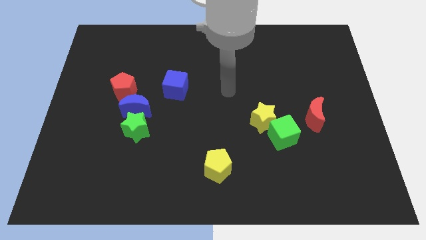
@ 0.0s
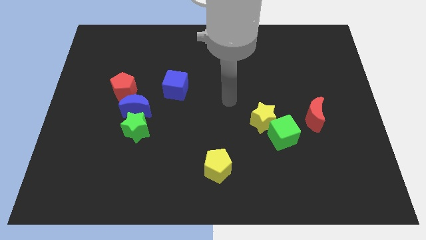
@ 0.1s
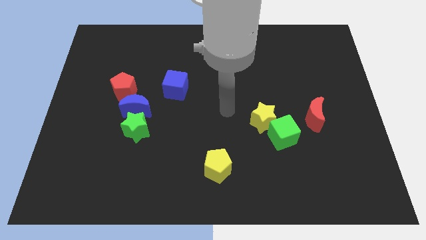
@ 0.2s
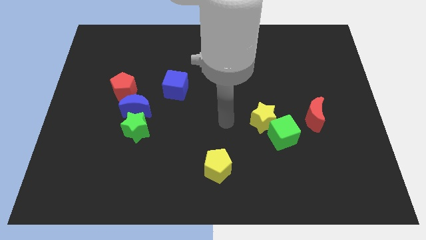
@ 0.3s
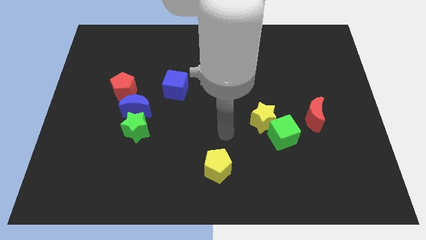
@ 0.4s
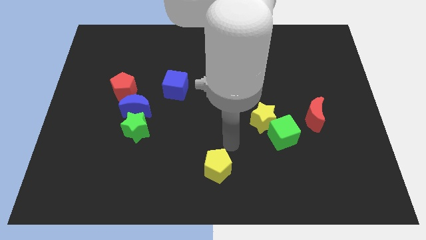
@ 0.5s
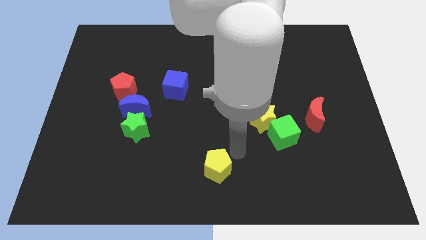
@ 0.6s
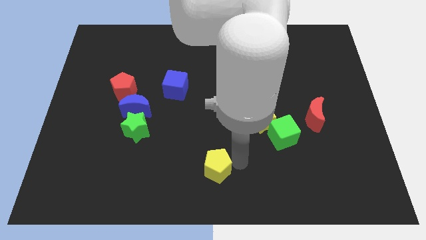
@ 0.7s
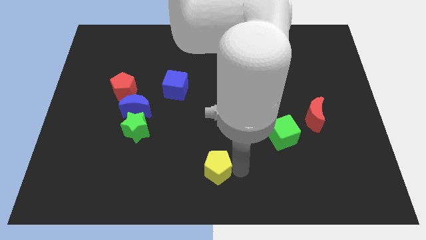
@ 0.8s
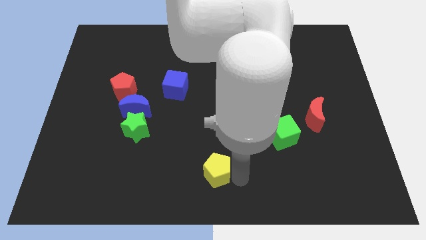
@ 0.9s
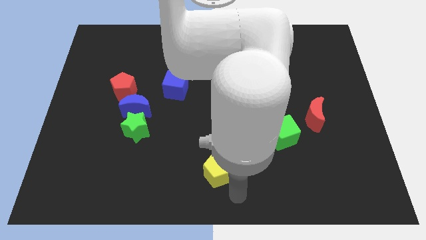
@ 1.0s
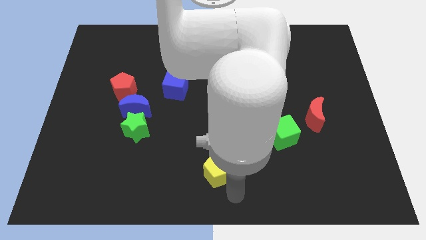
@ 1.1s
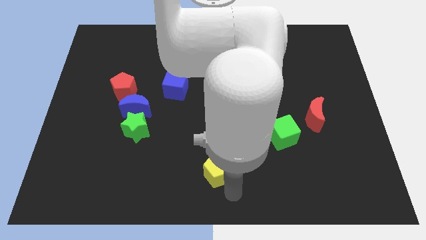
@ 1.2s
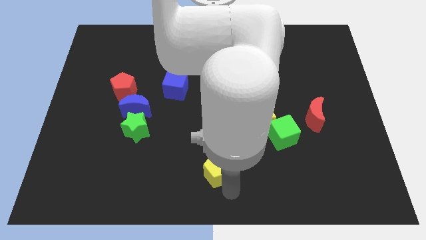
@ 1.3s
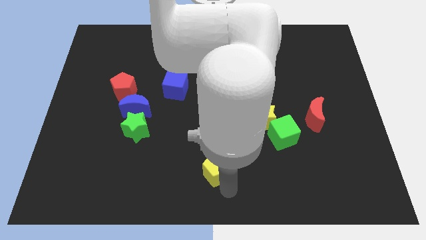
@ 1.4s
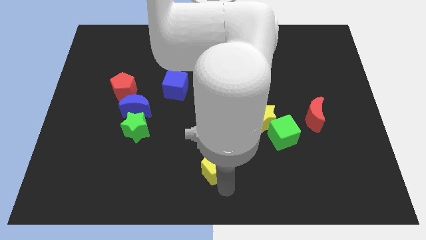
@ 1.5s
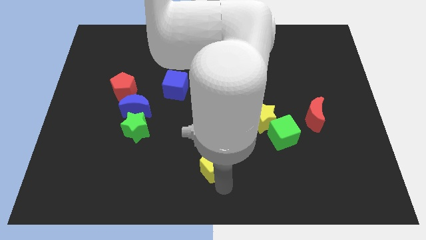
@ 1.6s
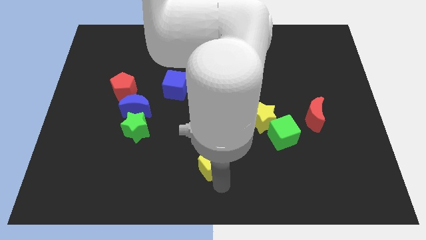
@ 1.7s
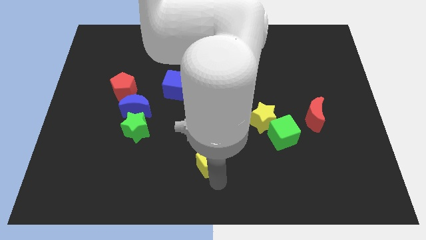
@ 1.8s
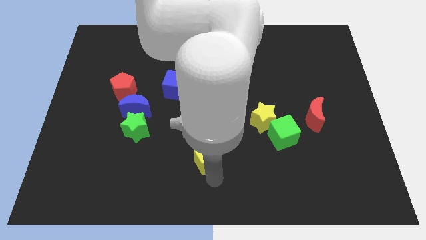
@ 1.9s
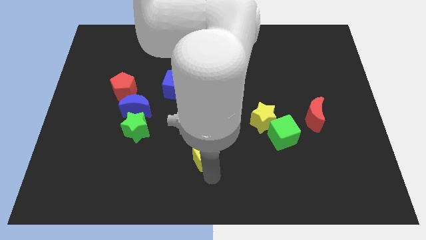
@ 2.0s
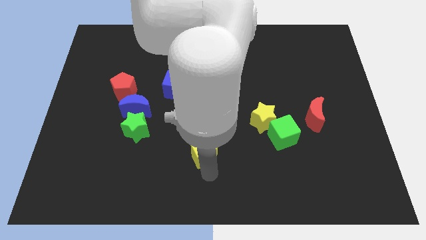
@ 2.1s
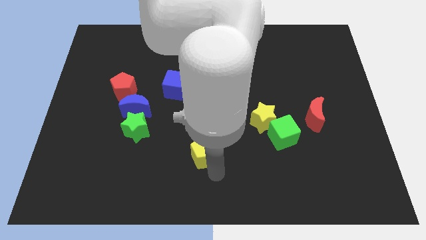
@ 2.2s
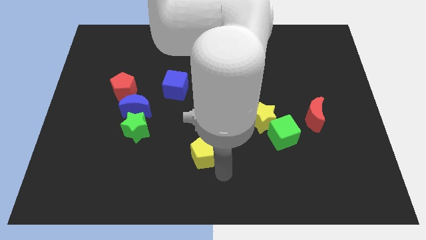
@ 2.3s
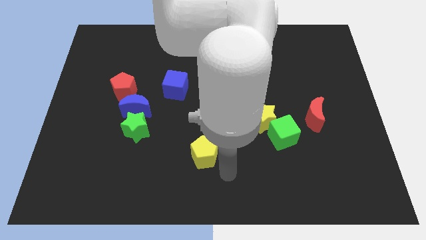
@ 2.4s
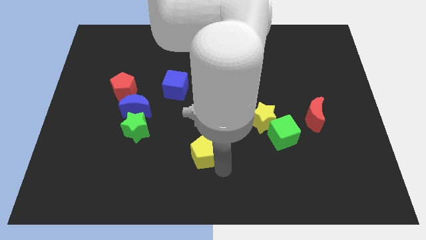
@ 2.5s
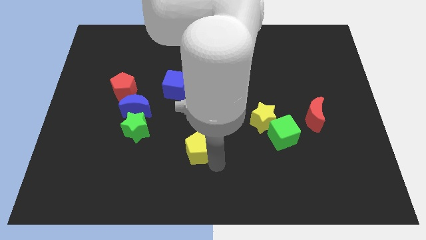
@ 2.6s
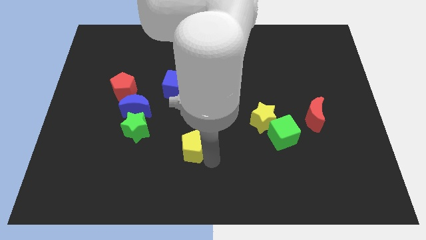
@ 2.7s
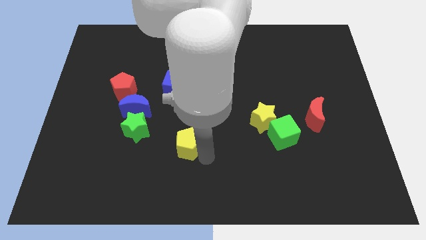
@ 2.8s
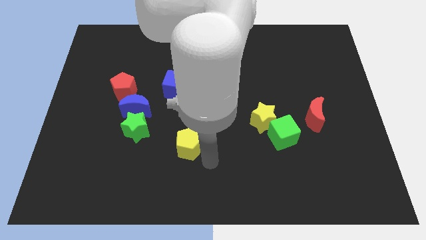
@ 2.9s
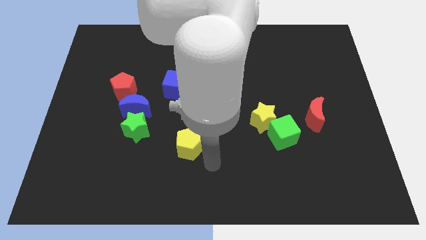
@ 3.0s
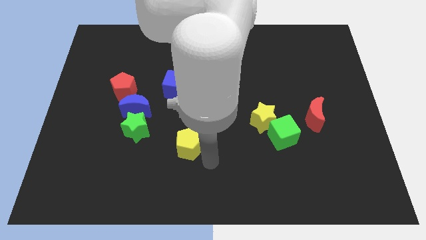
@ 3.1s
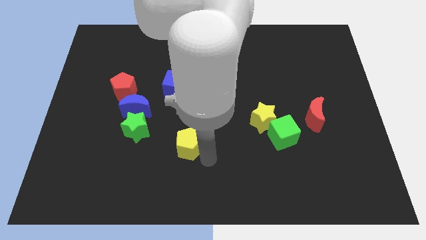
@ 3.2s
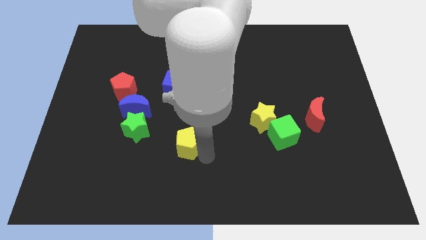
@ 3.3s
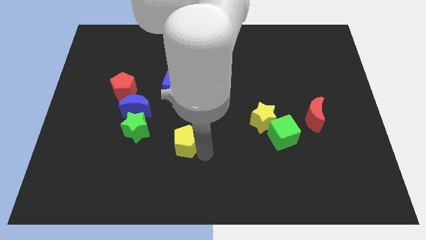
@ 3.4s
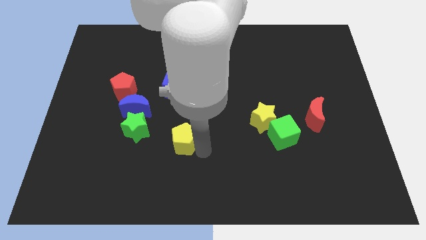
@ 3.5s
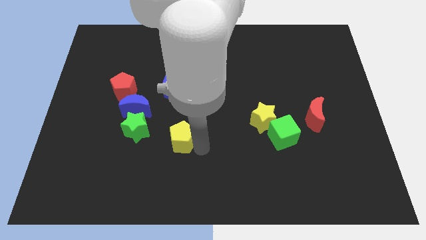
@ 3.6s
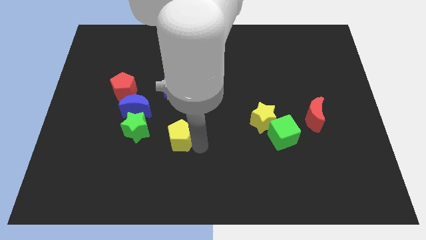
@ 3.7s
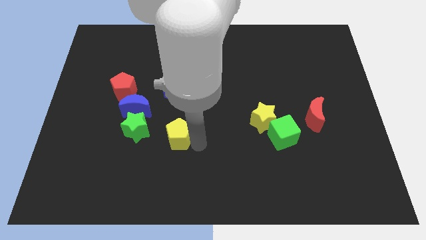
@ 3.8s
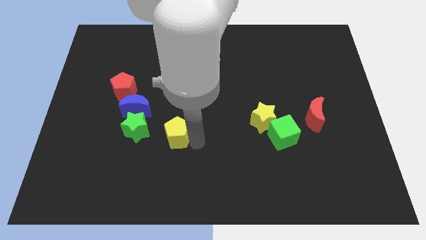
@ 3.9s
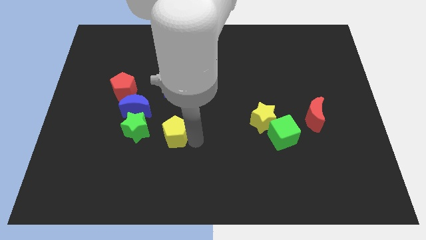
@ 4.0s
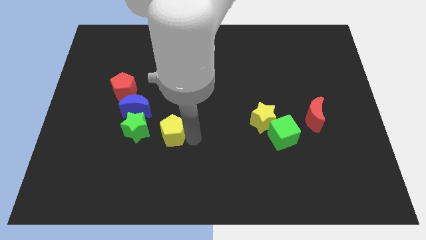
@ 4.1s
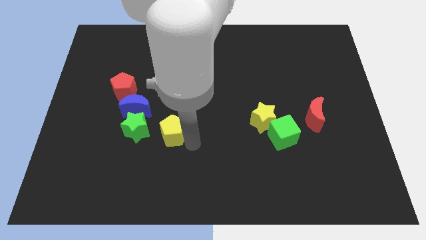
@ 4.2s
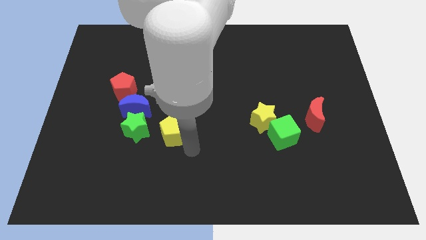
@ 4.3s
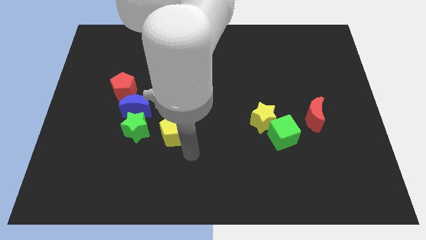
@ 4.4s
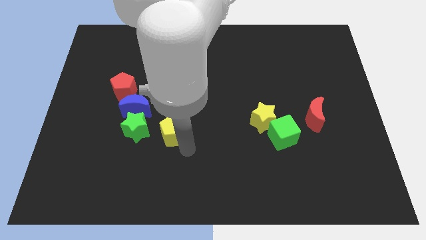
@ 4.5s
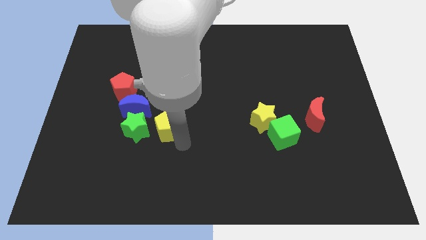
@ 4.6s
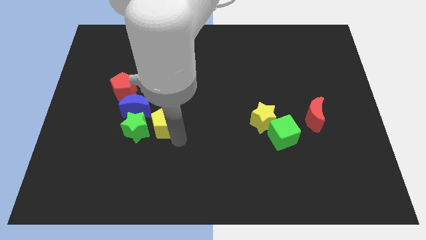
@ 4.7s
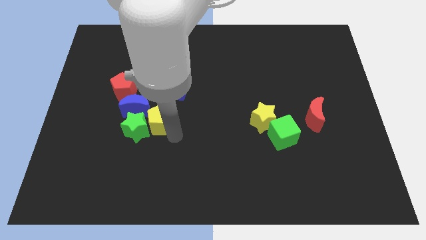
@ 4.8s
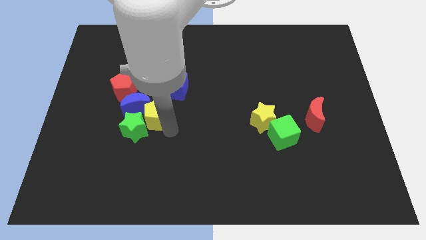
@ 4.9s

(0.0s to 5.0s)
push the yellow pentagon next to the blue moon

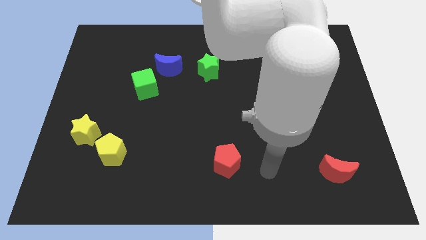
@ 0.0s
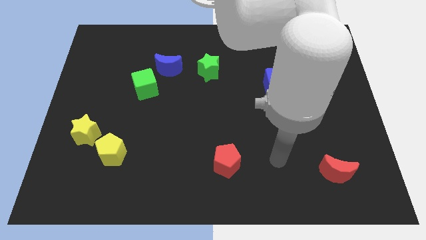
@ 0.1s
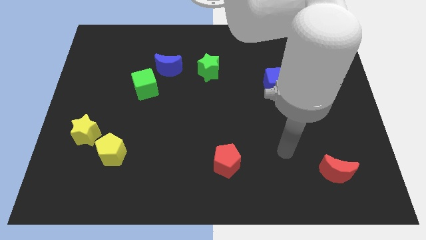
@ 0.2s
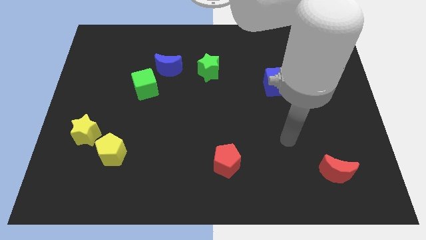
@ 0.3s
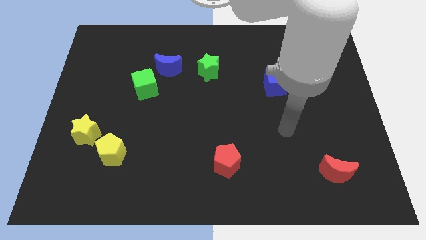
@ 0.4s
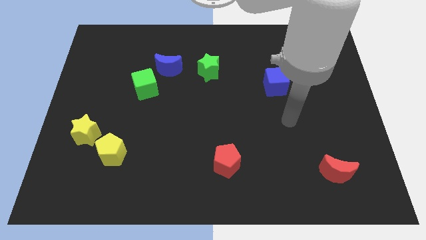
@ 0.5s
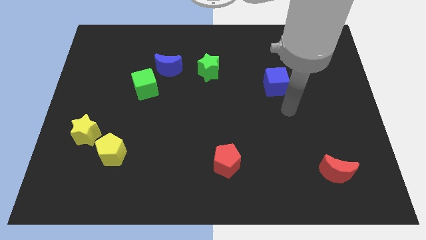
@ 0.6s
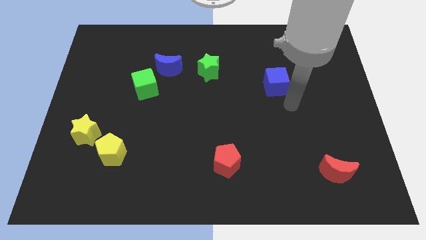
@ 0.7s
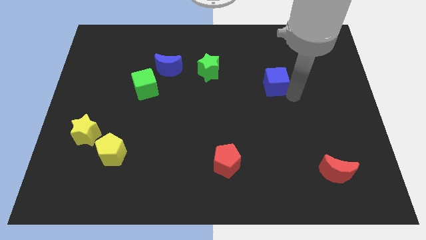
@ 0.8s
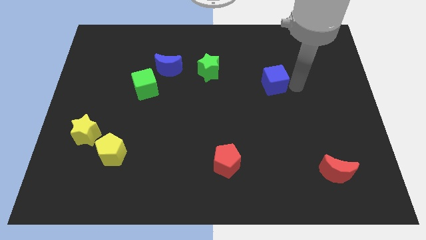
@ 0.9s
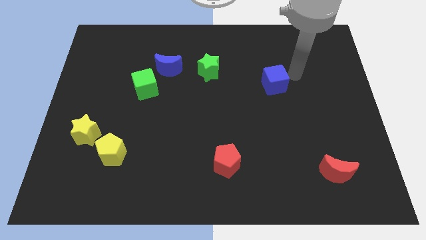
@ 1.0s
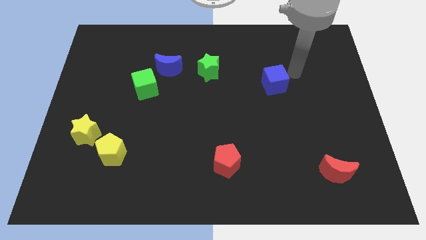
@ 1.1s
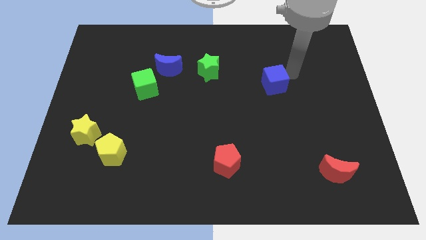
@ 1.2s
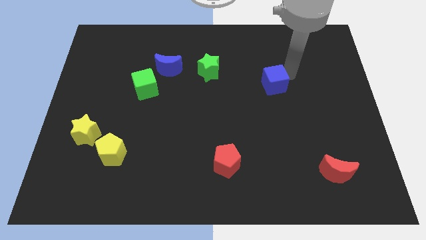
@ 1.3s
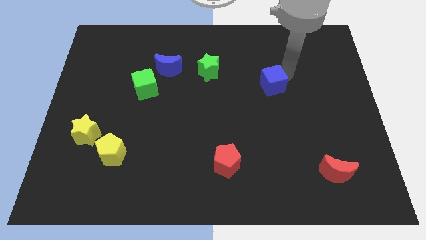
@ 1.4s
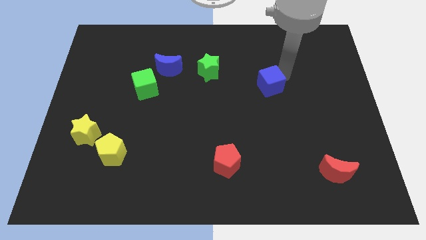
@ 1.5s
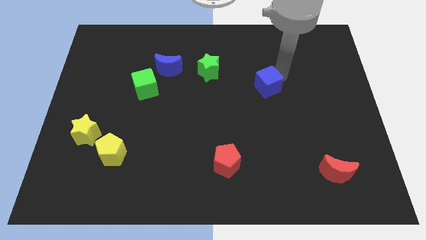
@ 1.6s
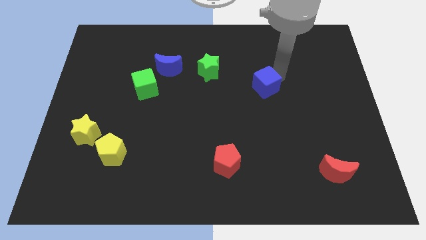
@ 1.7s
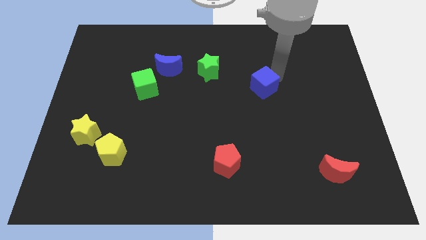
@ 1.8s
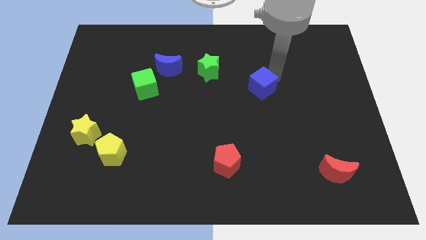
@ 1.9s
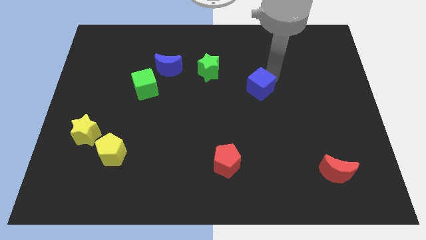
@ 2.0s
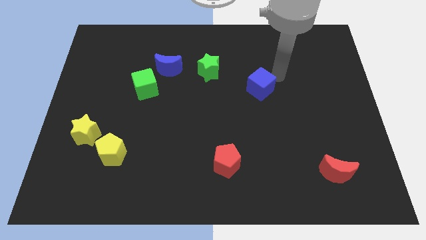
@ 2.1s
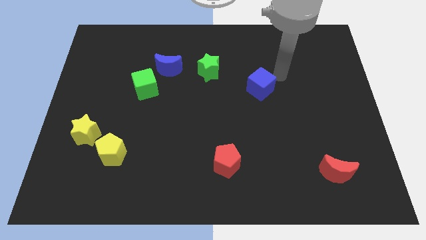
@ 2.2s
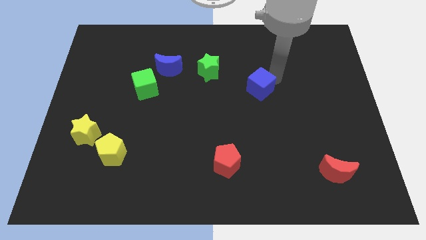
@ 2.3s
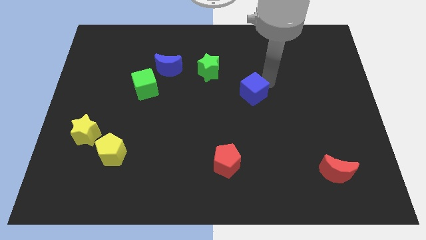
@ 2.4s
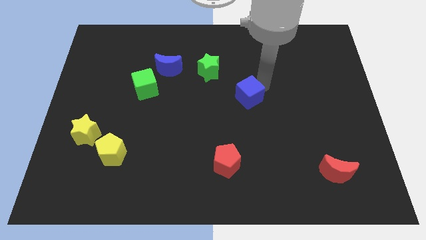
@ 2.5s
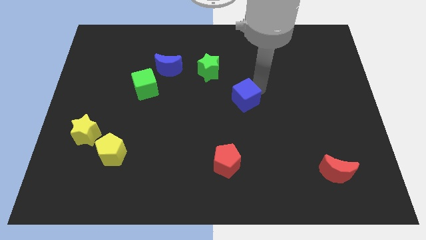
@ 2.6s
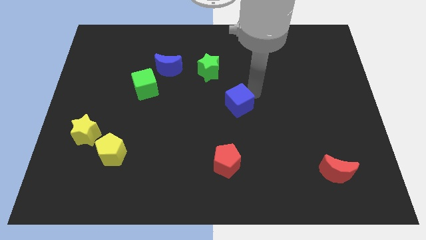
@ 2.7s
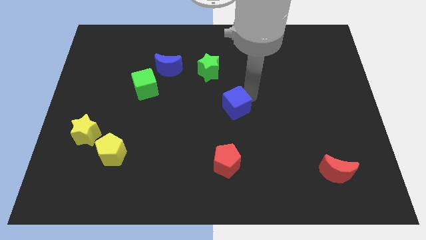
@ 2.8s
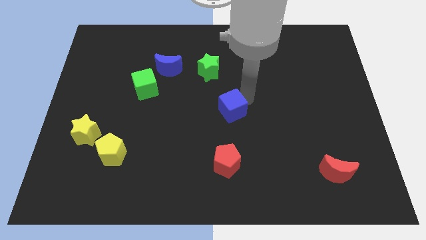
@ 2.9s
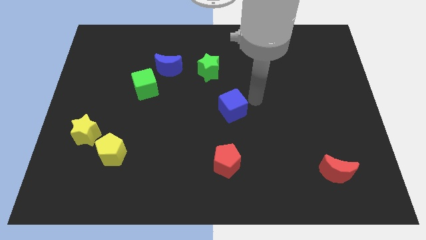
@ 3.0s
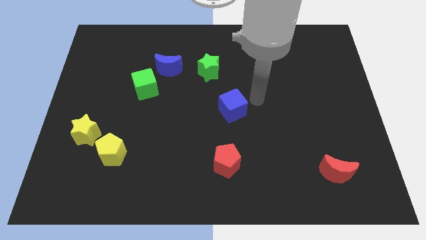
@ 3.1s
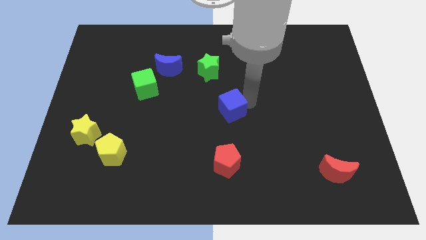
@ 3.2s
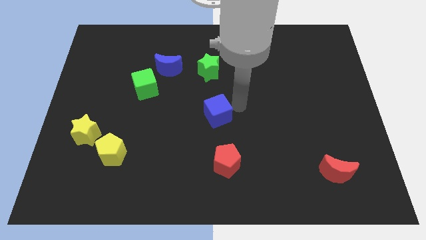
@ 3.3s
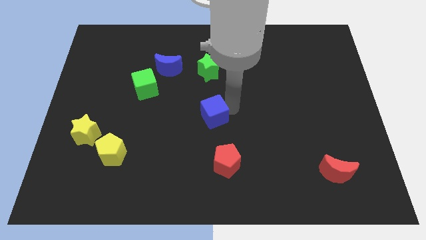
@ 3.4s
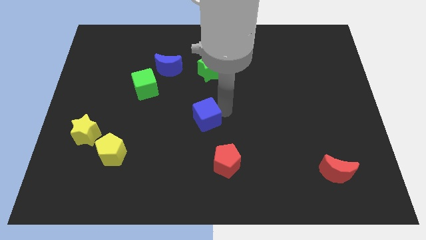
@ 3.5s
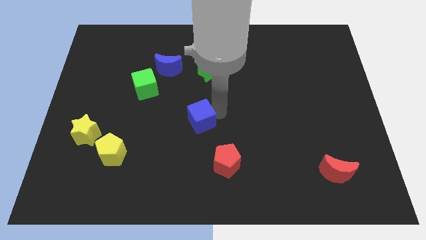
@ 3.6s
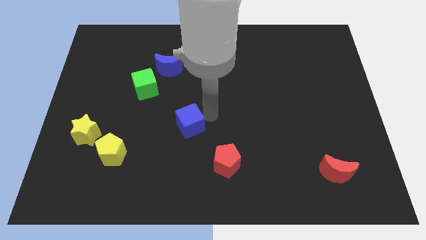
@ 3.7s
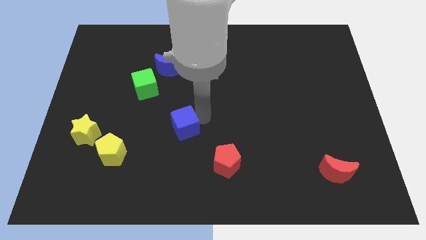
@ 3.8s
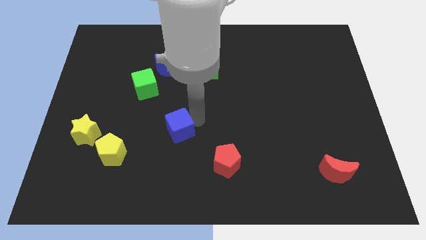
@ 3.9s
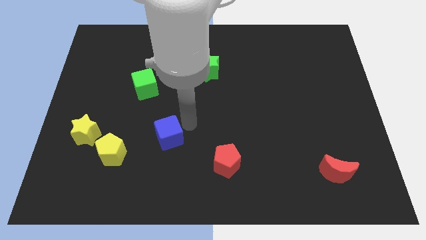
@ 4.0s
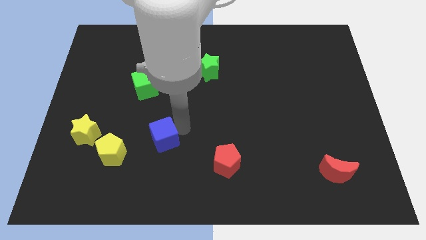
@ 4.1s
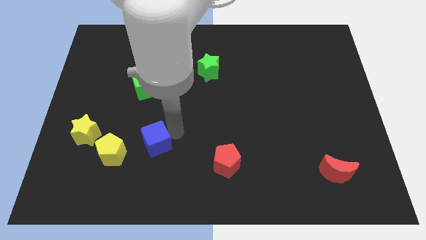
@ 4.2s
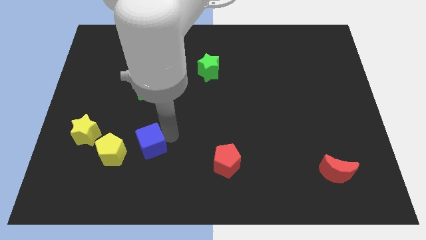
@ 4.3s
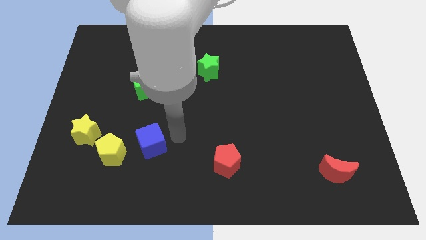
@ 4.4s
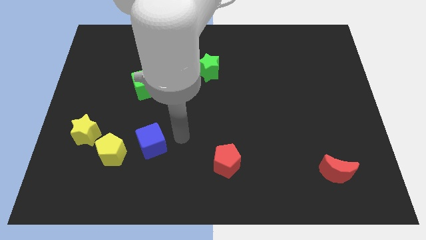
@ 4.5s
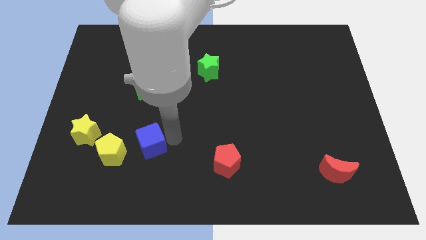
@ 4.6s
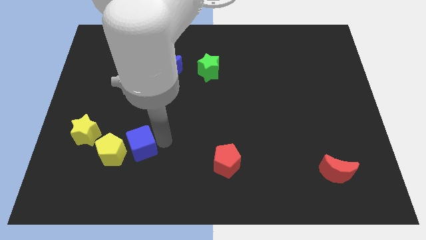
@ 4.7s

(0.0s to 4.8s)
push the blue cube towards the yellow pentagon
